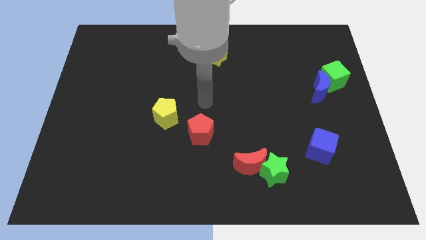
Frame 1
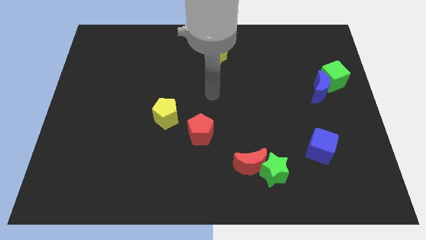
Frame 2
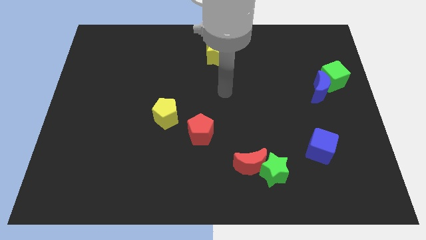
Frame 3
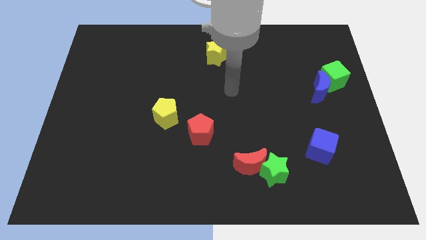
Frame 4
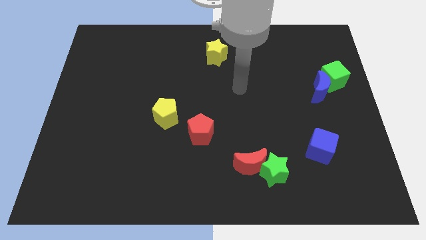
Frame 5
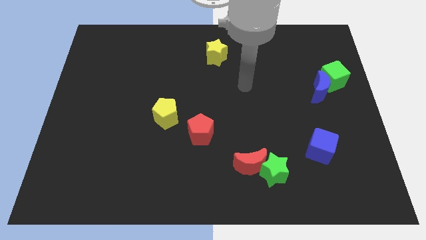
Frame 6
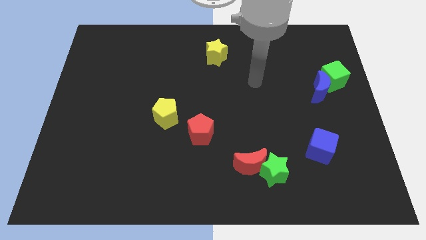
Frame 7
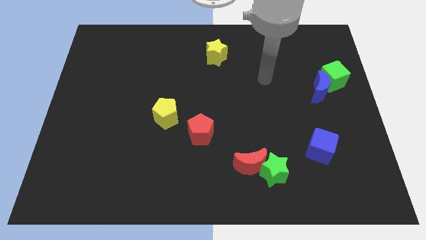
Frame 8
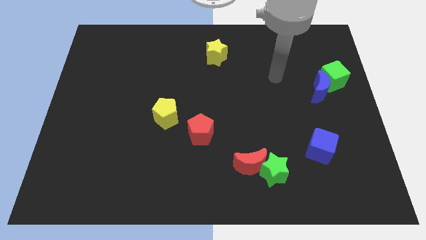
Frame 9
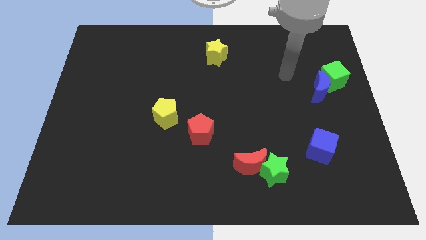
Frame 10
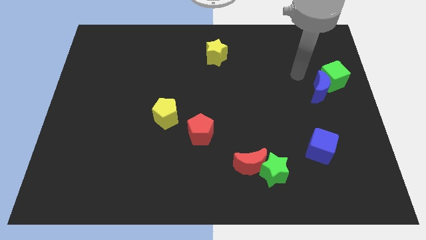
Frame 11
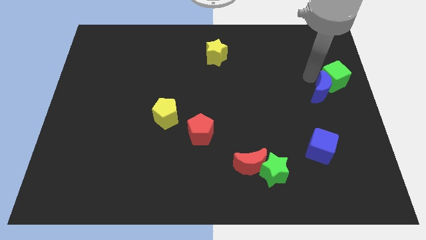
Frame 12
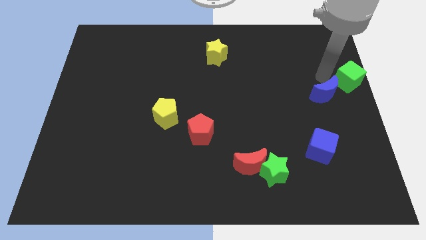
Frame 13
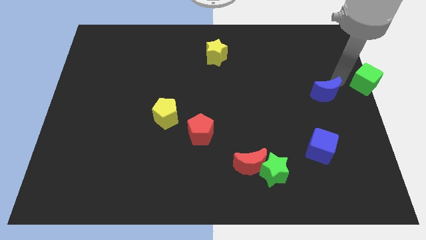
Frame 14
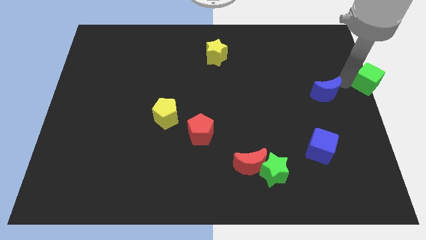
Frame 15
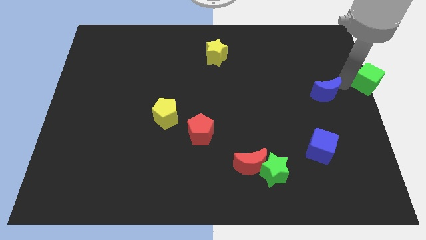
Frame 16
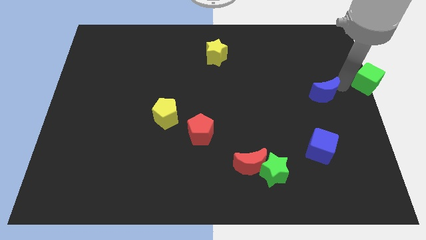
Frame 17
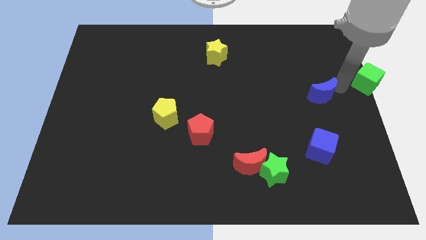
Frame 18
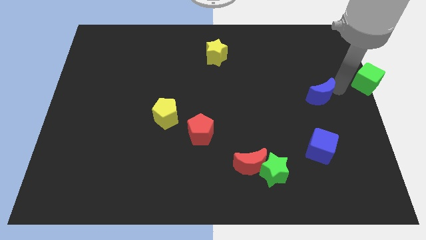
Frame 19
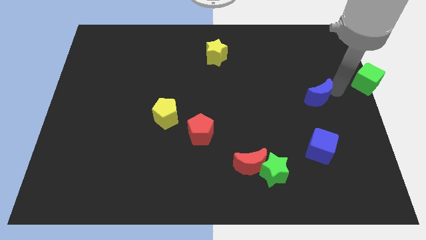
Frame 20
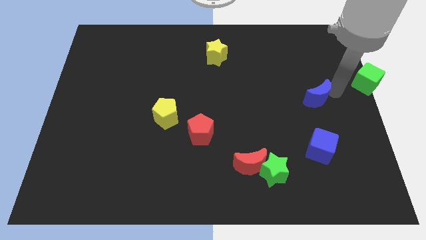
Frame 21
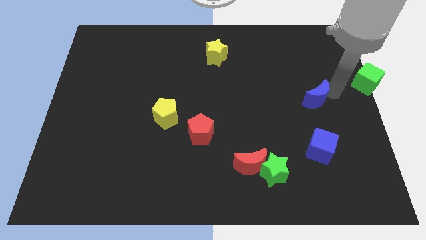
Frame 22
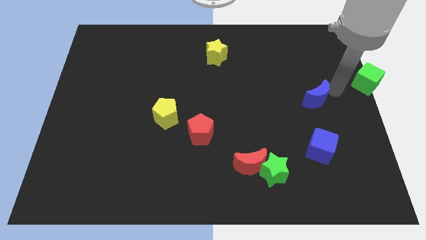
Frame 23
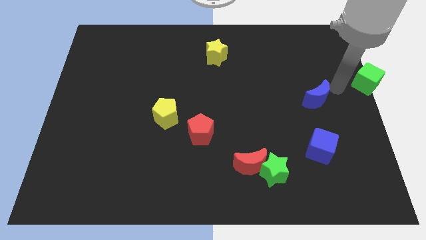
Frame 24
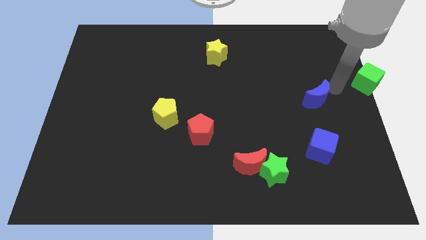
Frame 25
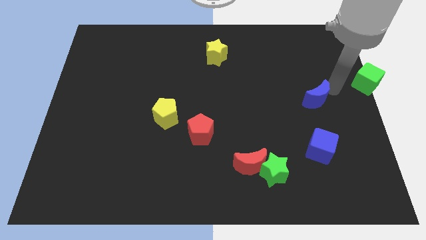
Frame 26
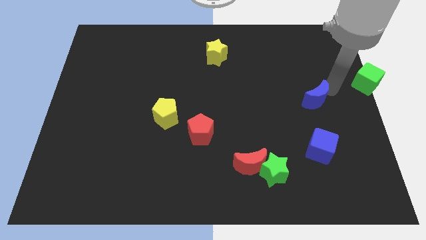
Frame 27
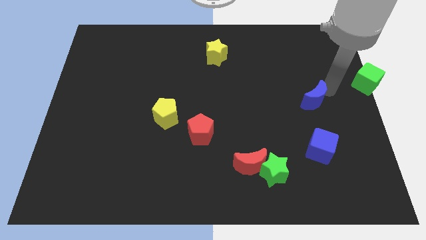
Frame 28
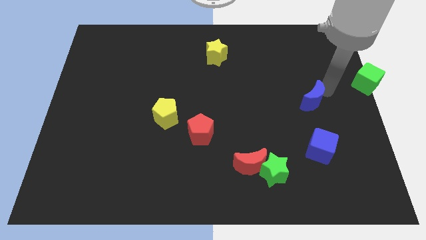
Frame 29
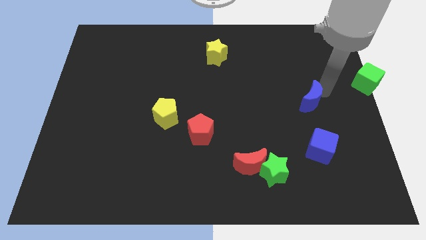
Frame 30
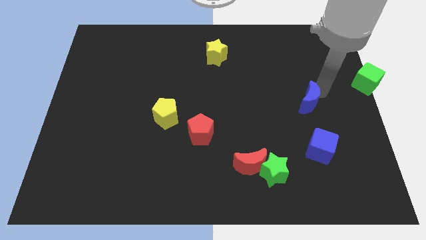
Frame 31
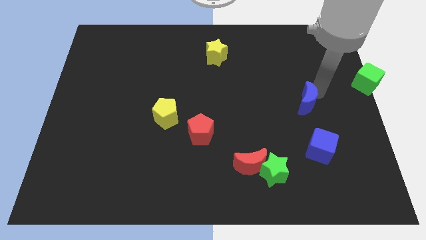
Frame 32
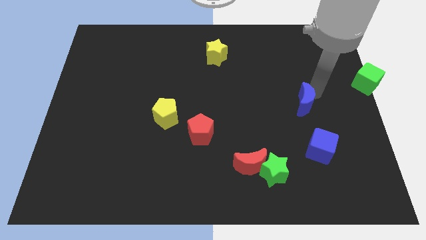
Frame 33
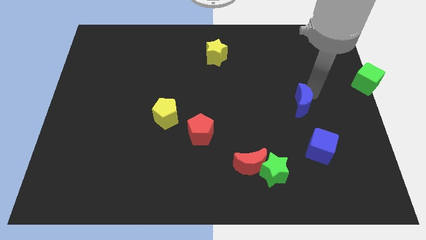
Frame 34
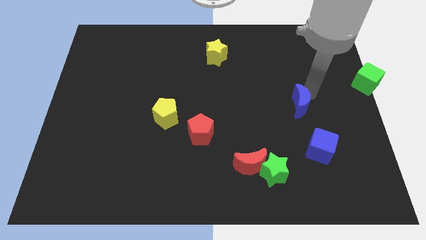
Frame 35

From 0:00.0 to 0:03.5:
push the blue moon down and to the left a little bit

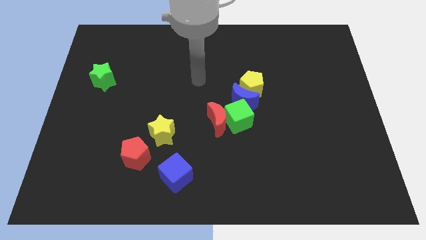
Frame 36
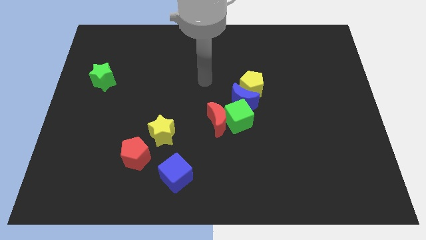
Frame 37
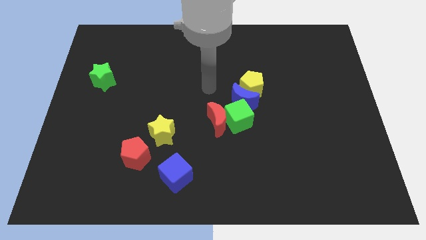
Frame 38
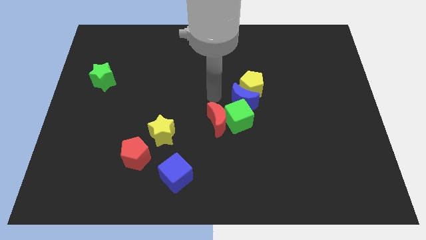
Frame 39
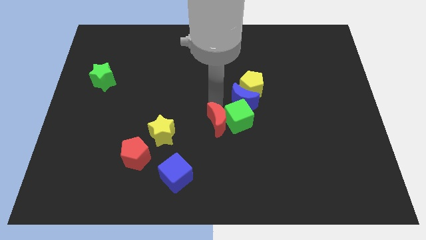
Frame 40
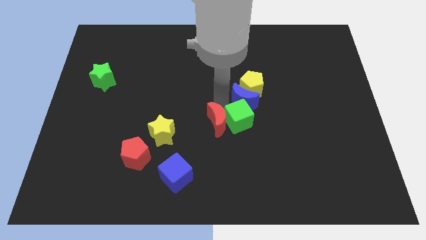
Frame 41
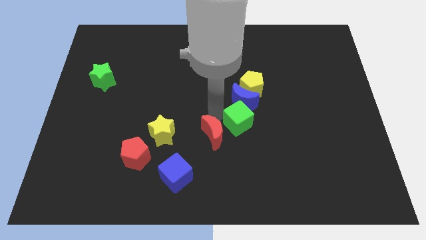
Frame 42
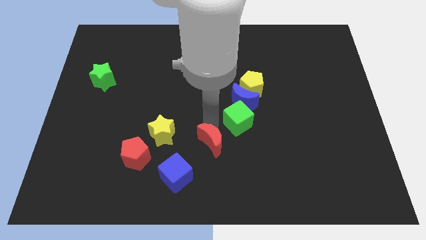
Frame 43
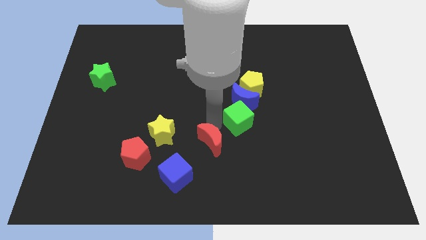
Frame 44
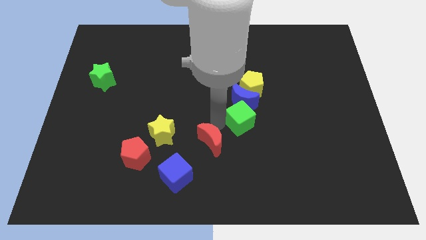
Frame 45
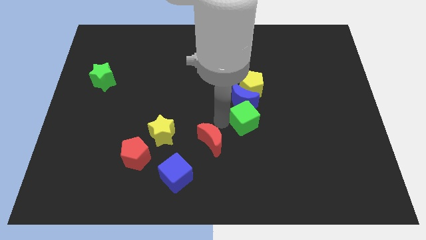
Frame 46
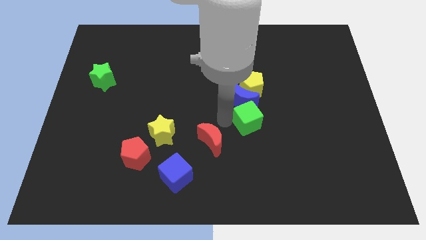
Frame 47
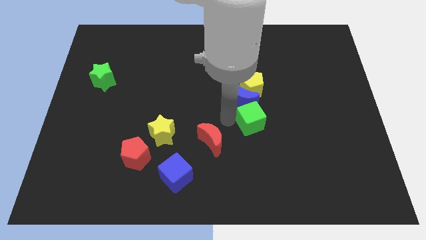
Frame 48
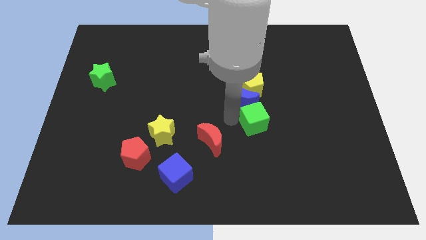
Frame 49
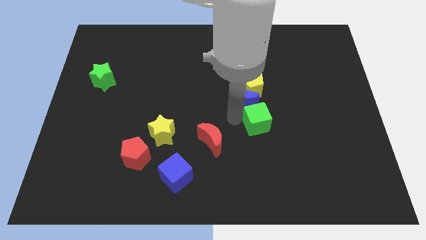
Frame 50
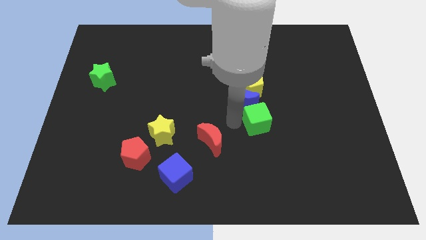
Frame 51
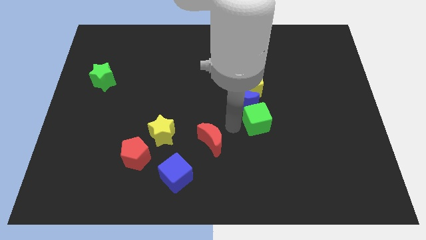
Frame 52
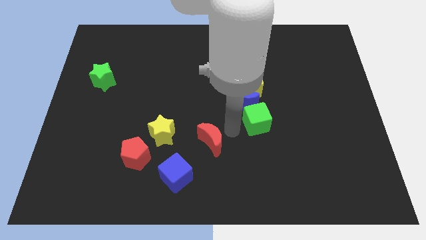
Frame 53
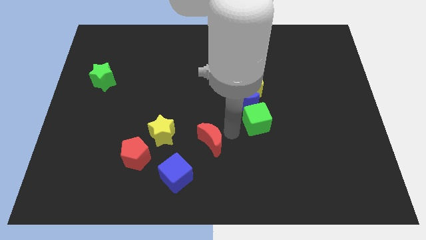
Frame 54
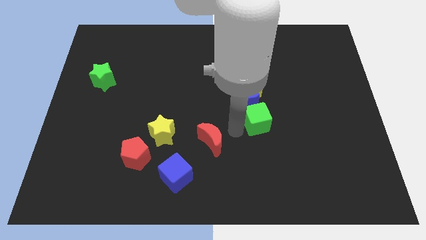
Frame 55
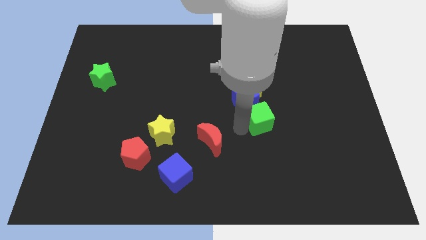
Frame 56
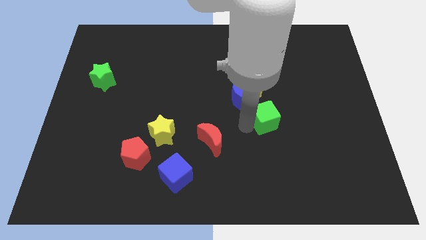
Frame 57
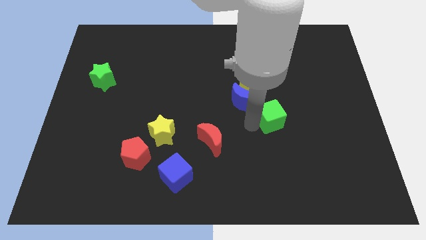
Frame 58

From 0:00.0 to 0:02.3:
slightly move the green cube right

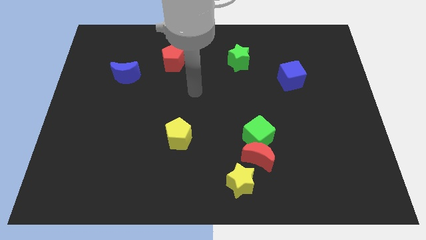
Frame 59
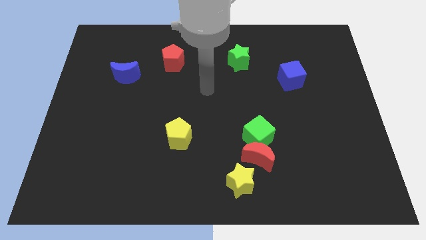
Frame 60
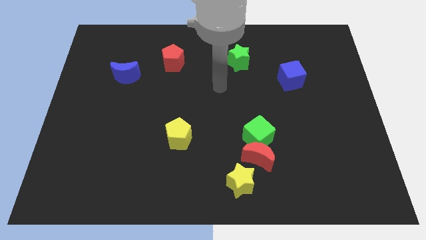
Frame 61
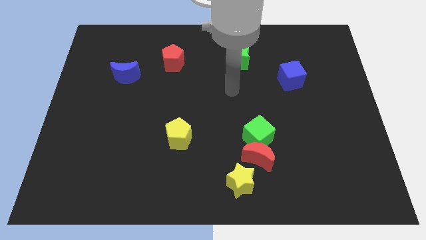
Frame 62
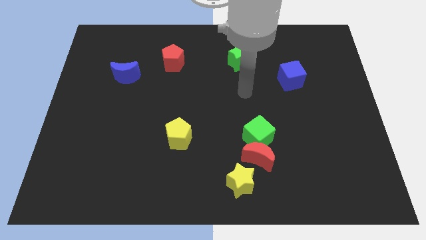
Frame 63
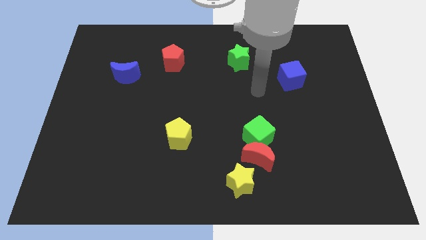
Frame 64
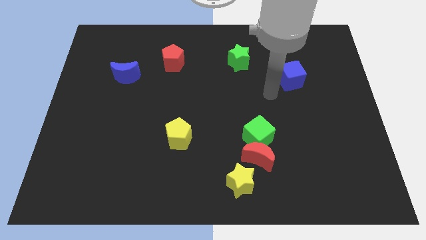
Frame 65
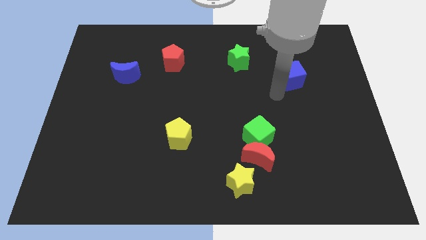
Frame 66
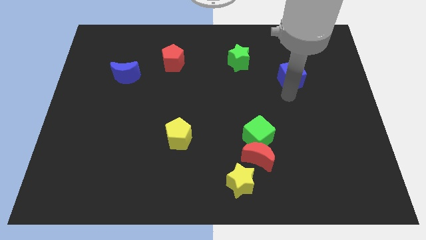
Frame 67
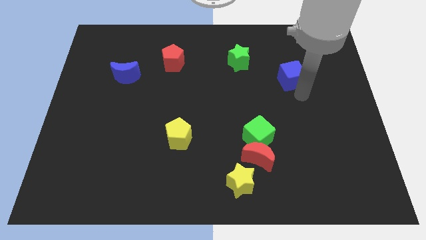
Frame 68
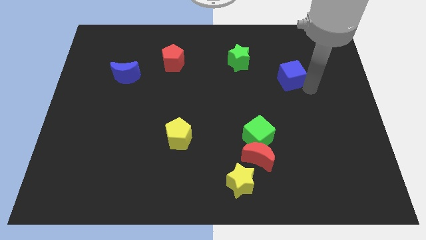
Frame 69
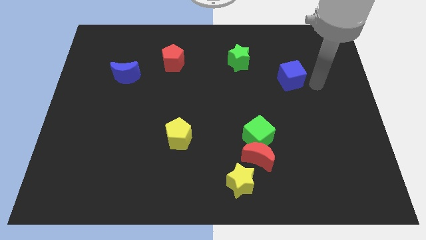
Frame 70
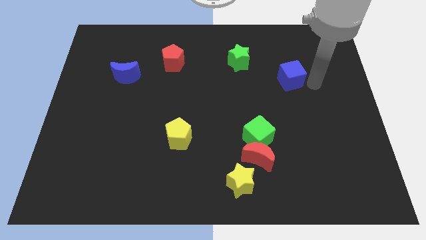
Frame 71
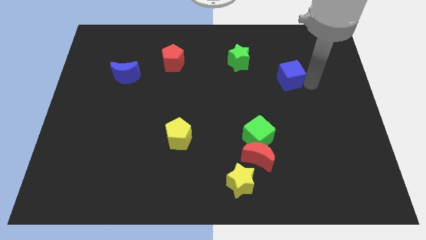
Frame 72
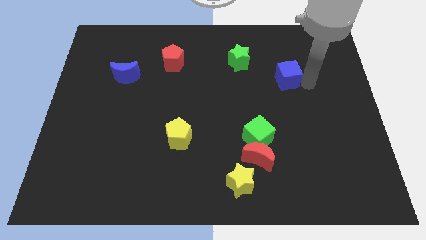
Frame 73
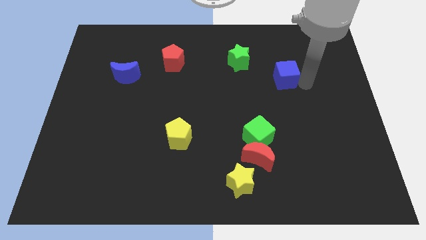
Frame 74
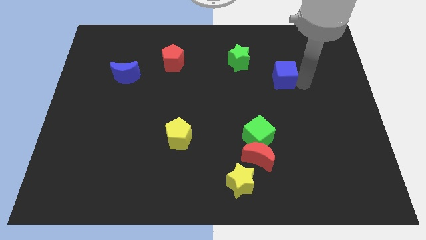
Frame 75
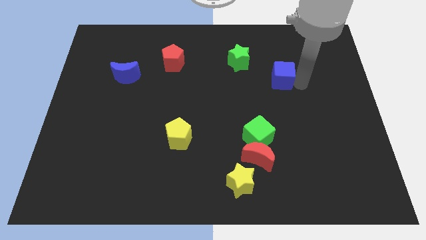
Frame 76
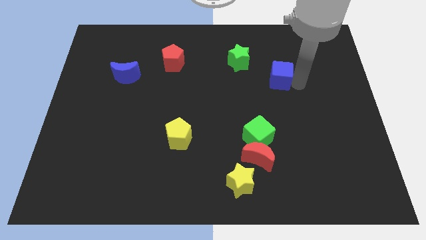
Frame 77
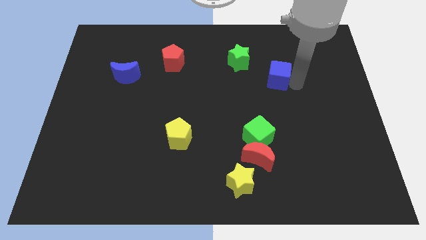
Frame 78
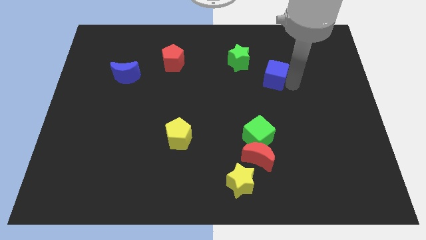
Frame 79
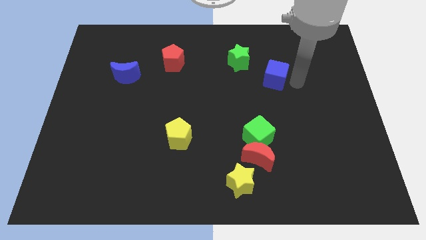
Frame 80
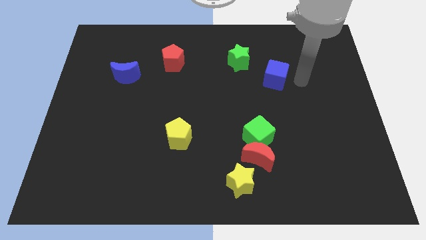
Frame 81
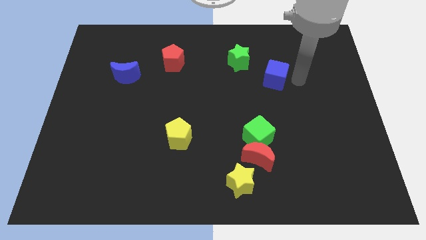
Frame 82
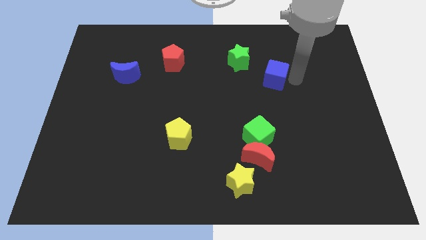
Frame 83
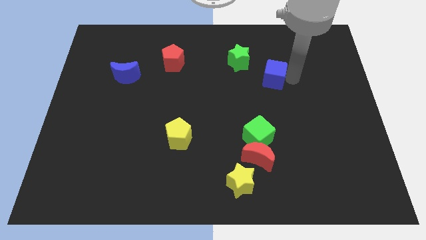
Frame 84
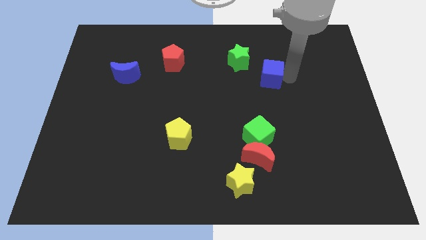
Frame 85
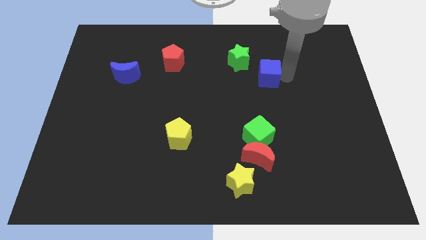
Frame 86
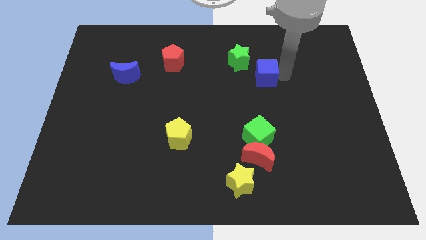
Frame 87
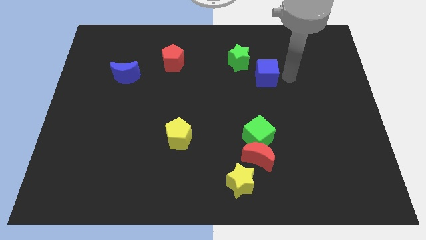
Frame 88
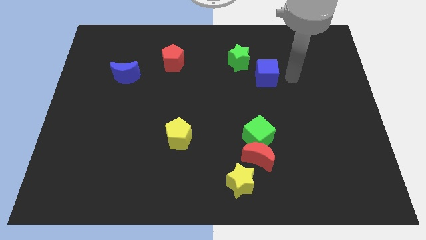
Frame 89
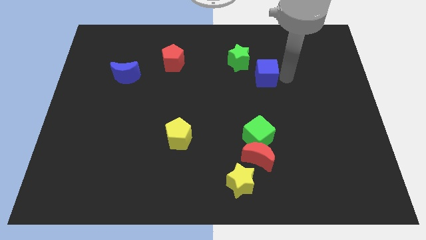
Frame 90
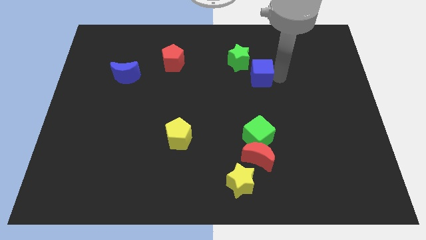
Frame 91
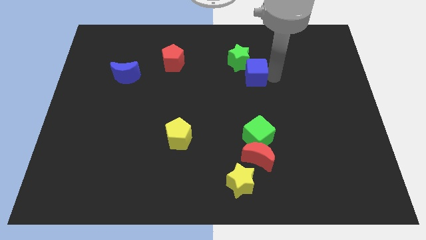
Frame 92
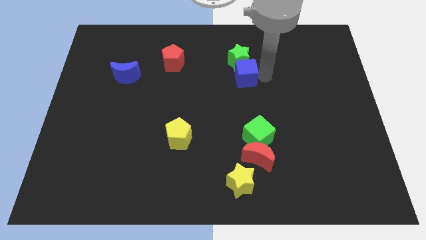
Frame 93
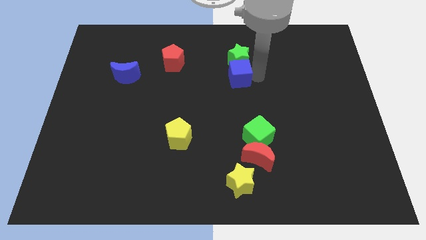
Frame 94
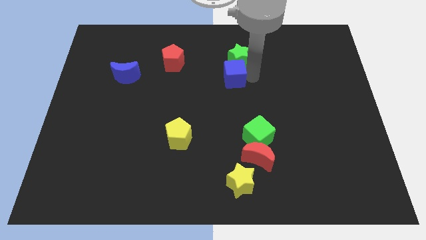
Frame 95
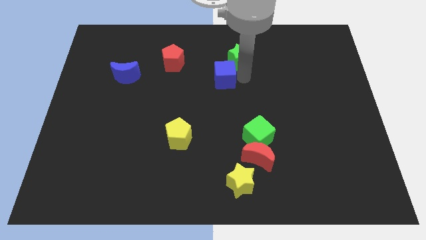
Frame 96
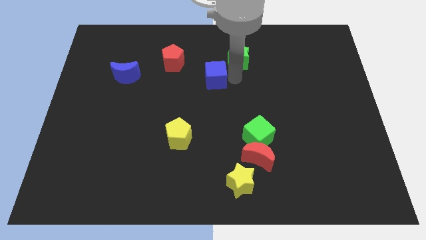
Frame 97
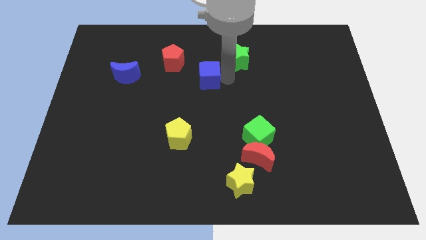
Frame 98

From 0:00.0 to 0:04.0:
move the blue cube left
